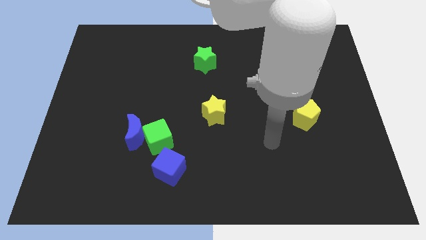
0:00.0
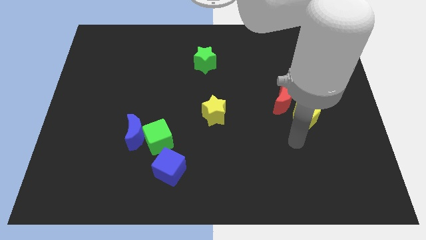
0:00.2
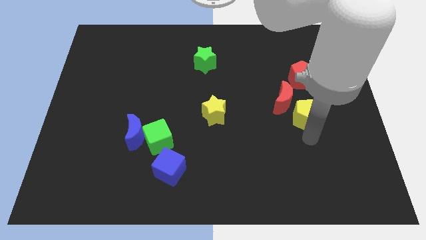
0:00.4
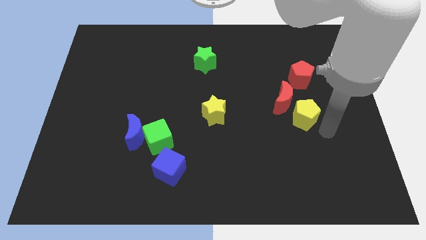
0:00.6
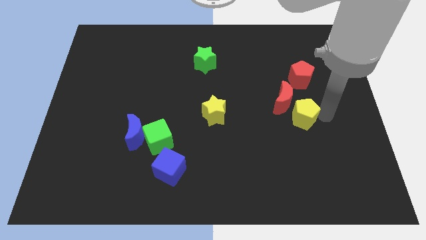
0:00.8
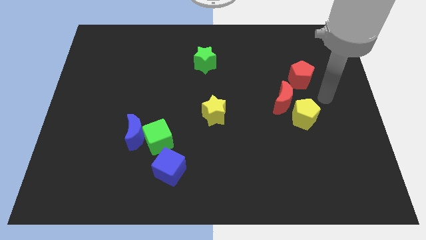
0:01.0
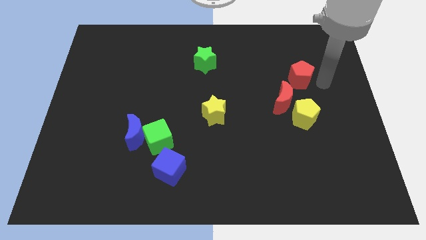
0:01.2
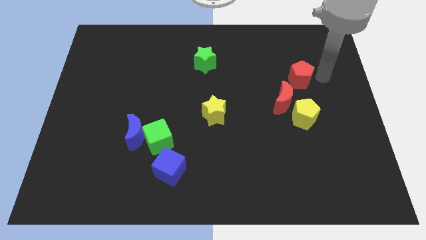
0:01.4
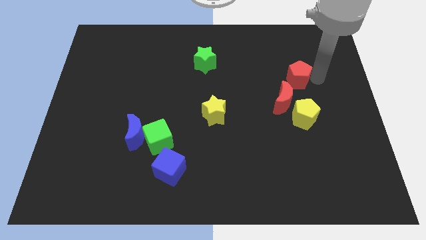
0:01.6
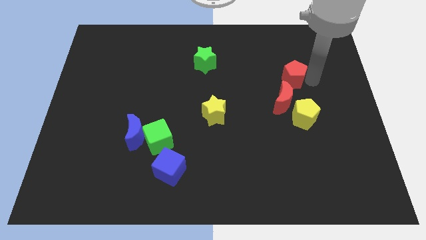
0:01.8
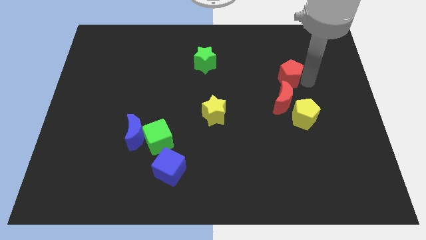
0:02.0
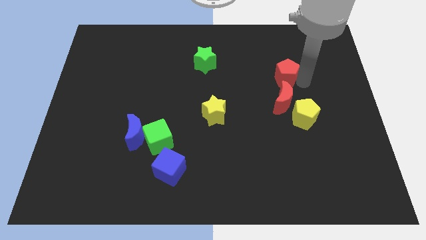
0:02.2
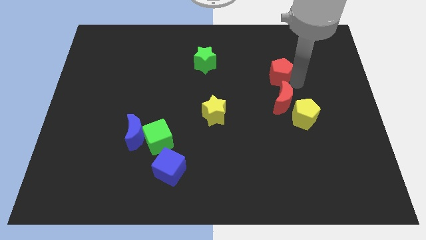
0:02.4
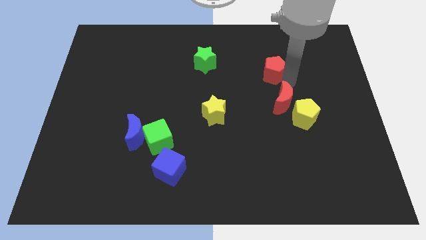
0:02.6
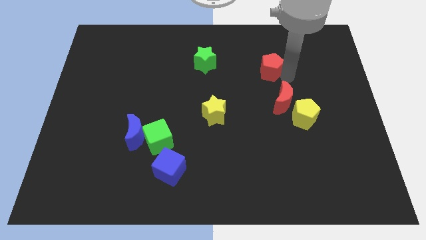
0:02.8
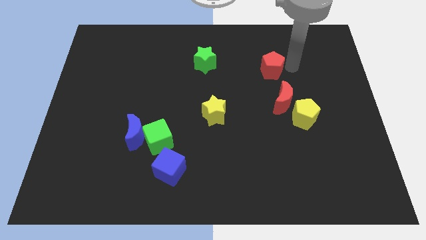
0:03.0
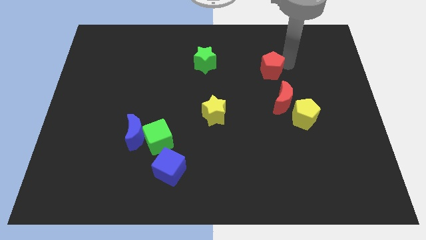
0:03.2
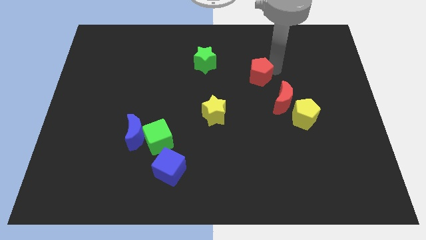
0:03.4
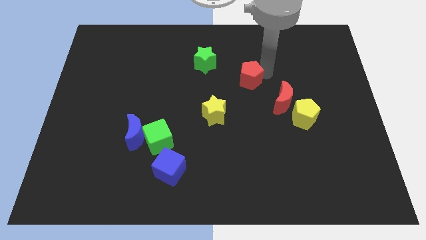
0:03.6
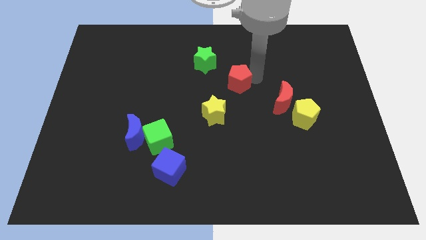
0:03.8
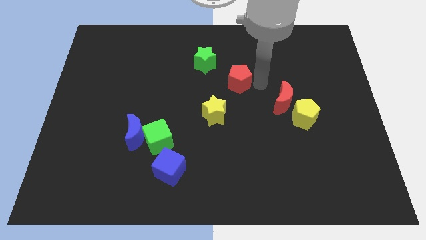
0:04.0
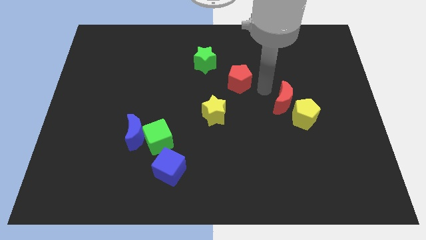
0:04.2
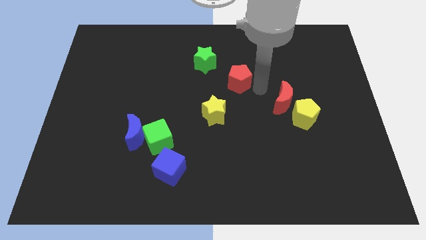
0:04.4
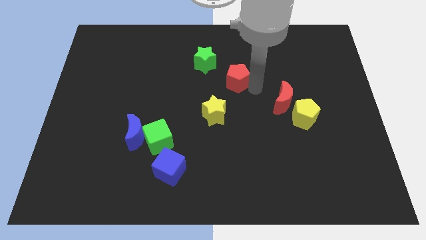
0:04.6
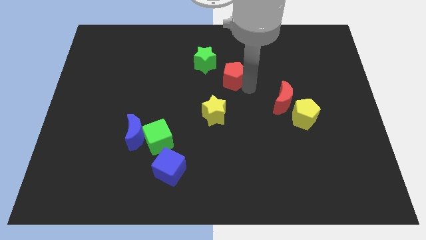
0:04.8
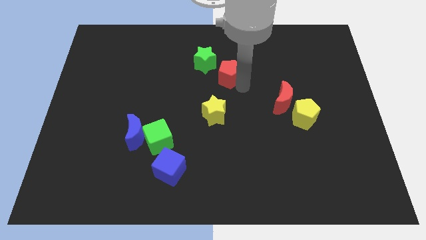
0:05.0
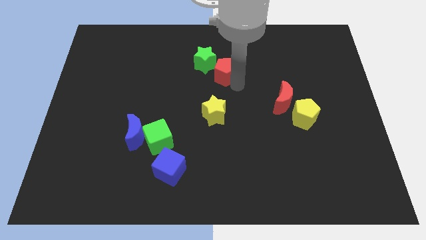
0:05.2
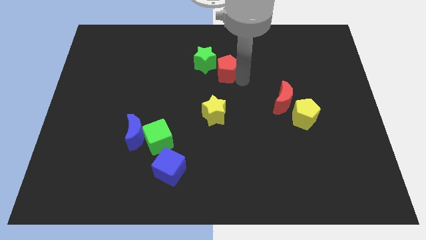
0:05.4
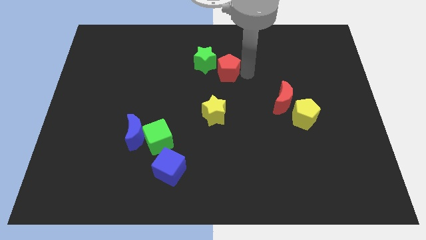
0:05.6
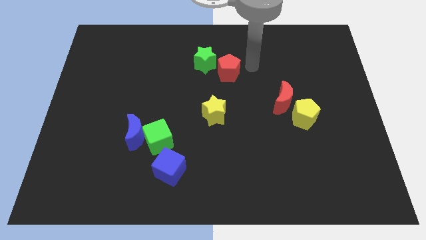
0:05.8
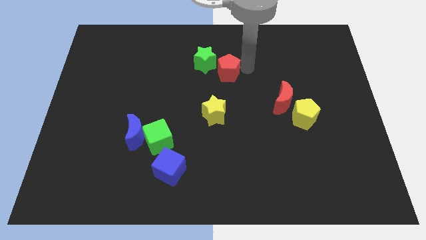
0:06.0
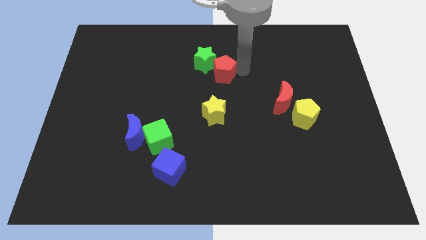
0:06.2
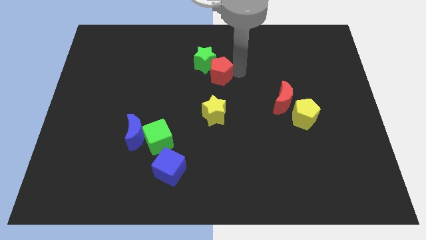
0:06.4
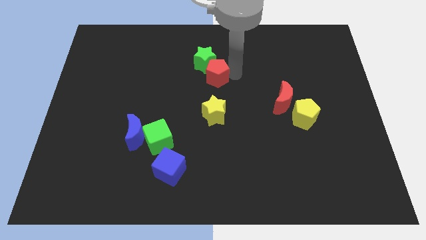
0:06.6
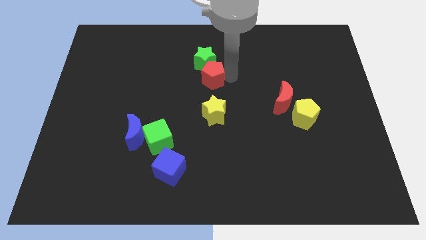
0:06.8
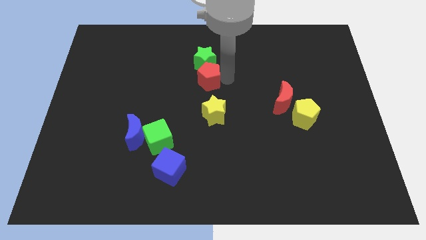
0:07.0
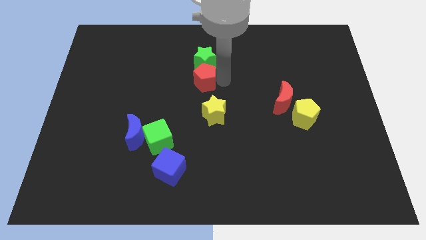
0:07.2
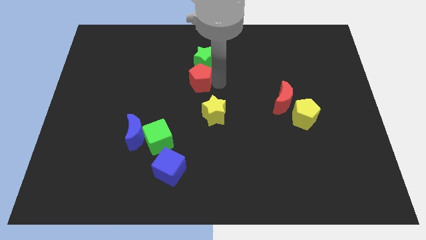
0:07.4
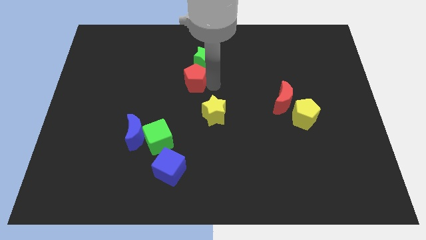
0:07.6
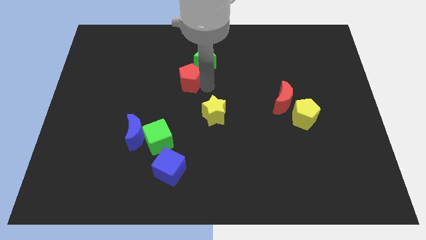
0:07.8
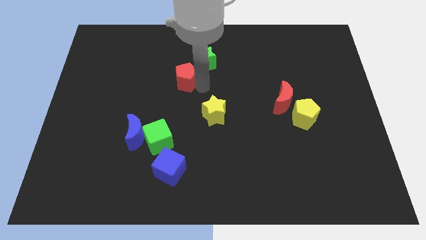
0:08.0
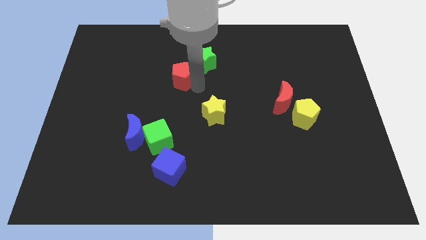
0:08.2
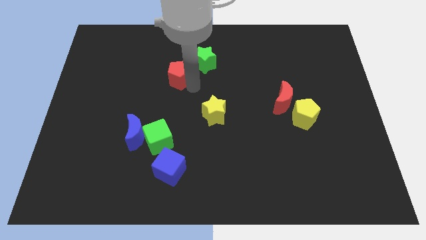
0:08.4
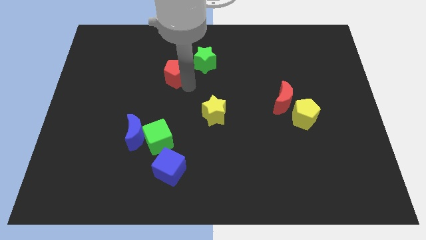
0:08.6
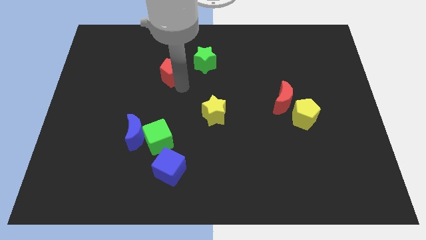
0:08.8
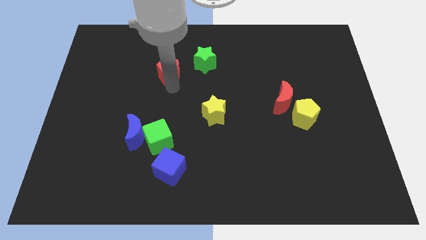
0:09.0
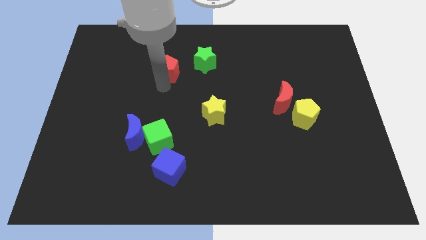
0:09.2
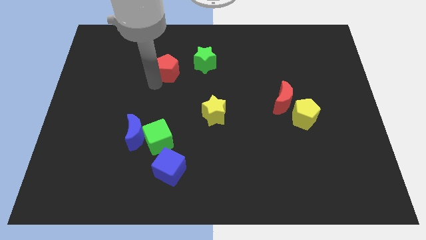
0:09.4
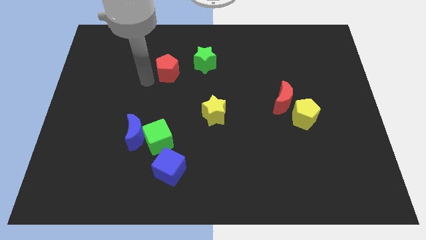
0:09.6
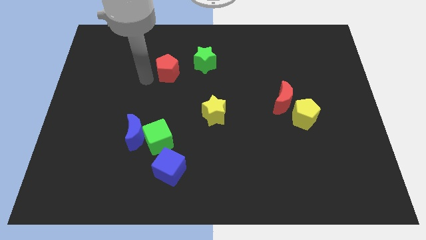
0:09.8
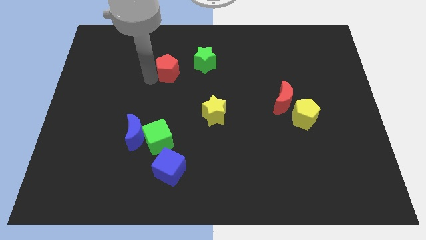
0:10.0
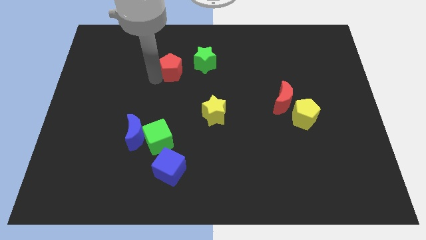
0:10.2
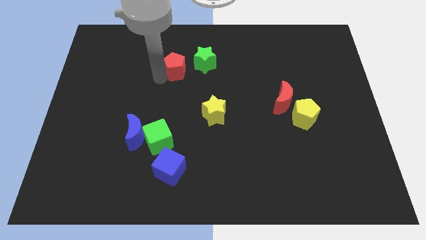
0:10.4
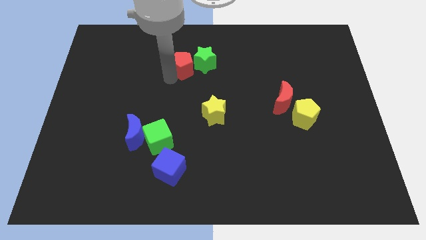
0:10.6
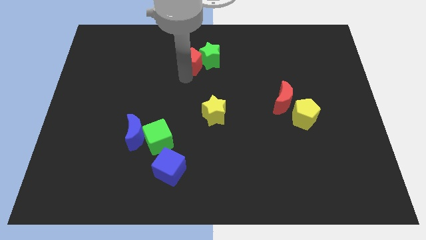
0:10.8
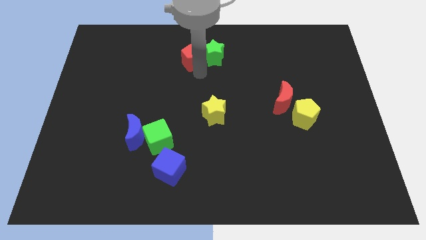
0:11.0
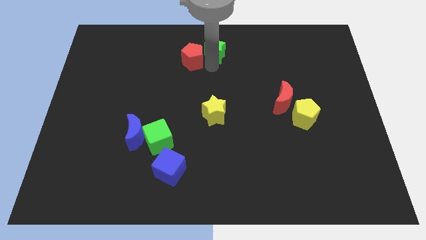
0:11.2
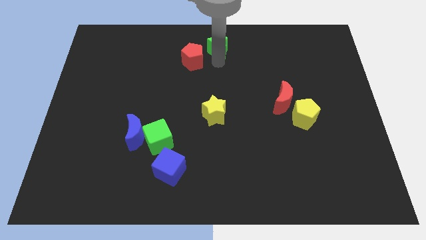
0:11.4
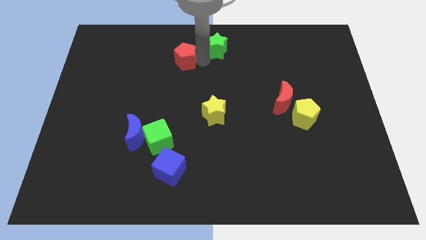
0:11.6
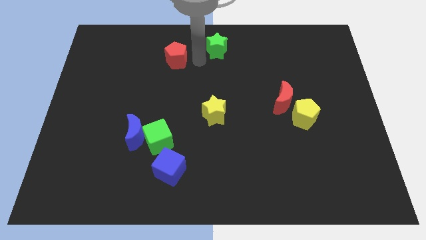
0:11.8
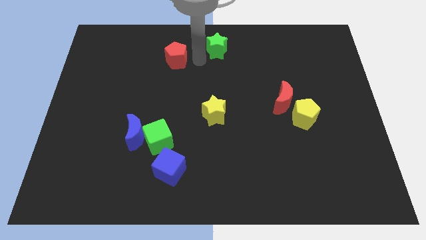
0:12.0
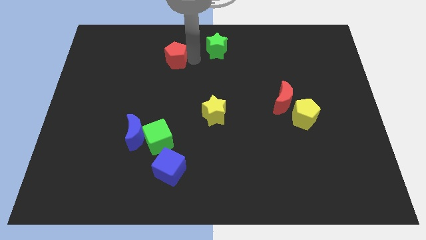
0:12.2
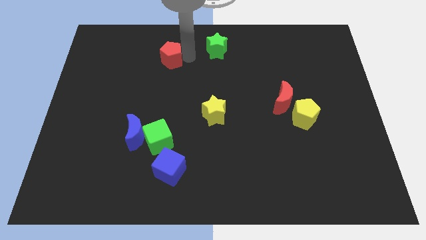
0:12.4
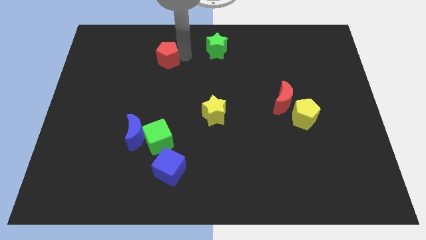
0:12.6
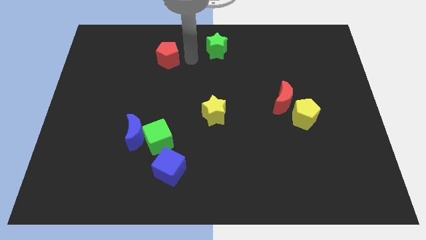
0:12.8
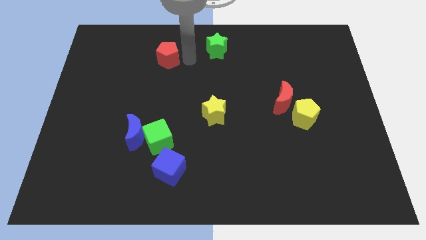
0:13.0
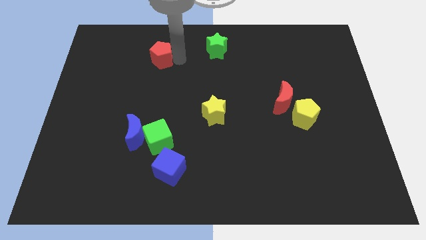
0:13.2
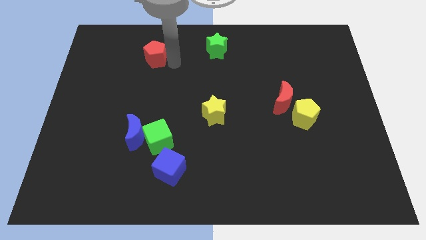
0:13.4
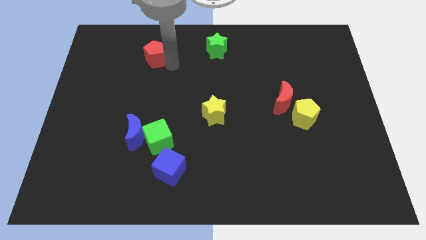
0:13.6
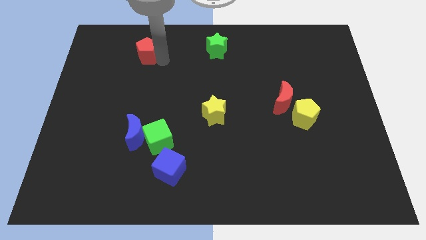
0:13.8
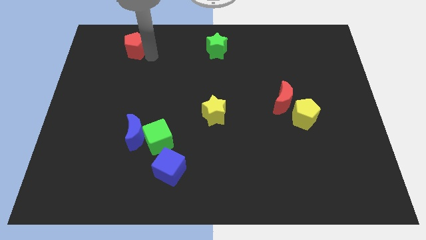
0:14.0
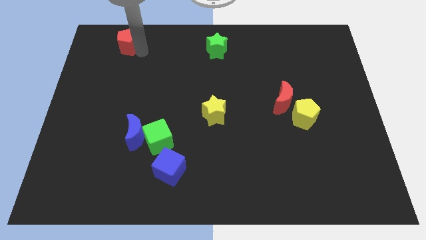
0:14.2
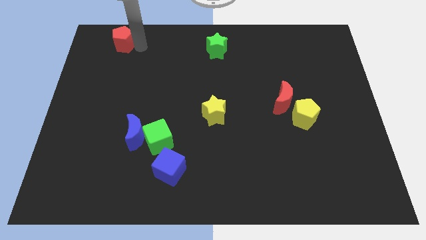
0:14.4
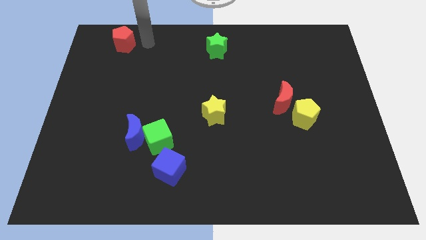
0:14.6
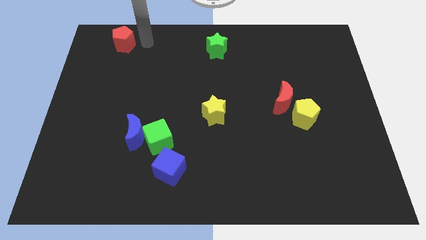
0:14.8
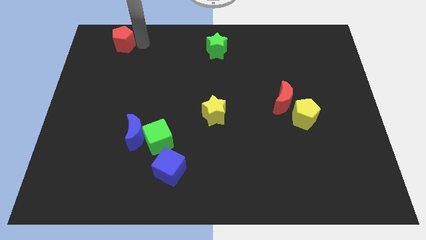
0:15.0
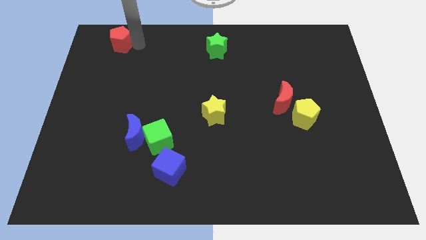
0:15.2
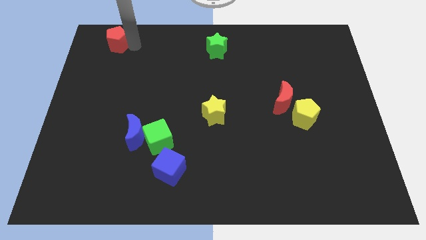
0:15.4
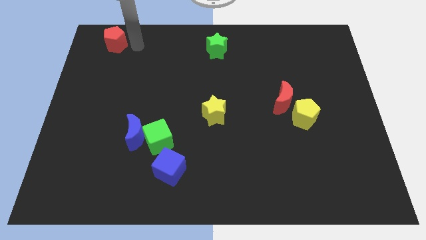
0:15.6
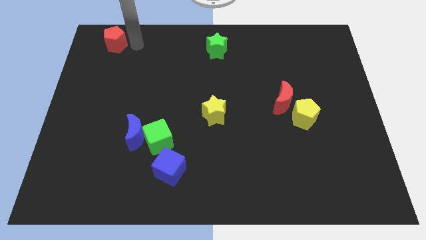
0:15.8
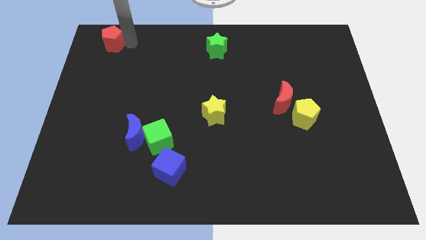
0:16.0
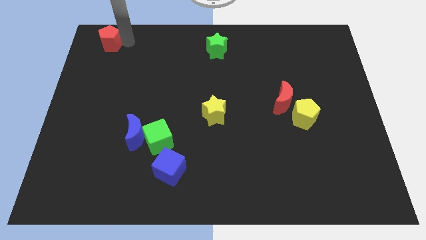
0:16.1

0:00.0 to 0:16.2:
move the red pentagon to the upper left corner
